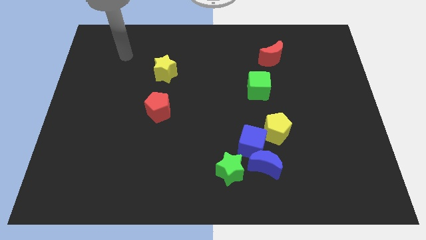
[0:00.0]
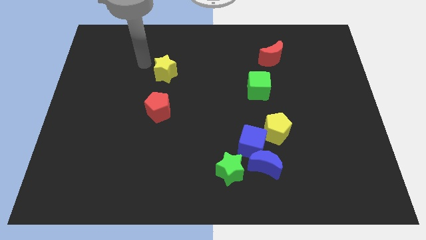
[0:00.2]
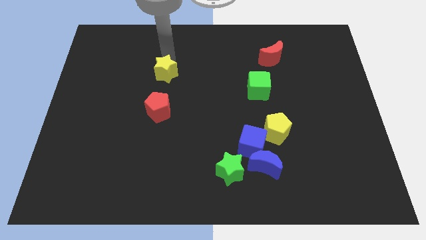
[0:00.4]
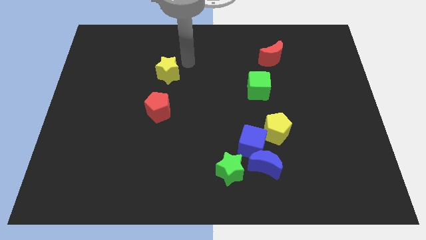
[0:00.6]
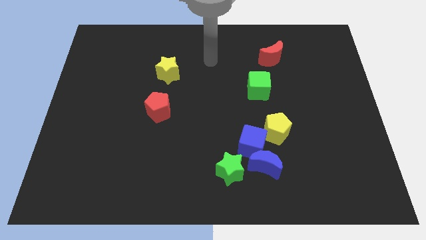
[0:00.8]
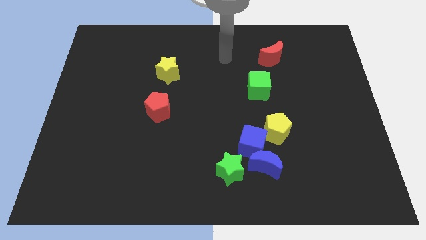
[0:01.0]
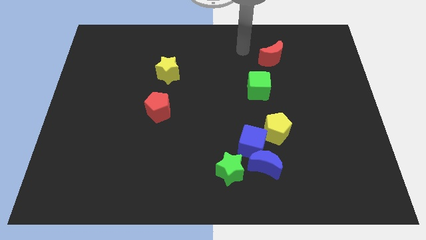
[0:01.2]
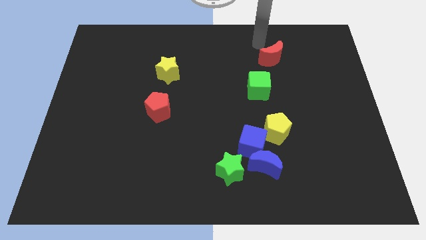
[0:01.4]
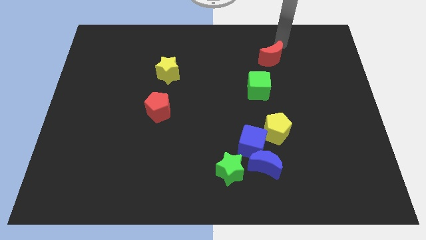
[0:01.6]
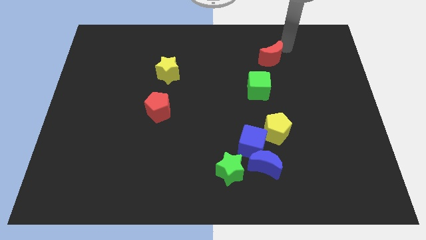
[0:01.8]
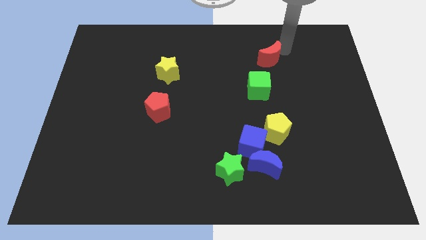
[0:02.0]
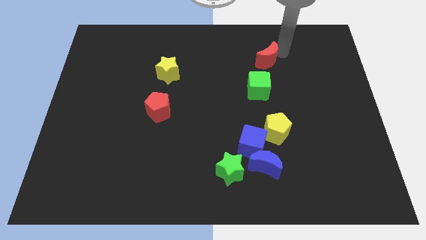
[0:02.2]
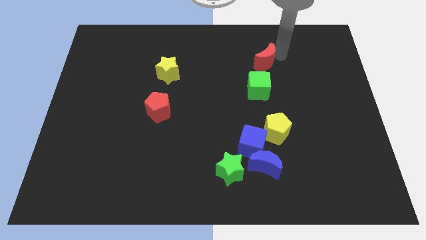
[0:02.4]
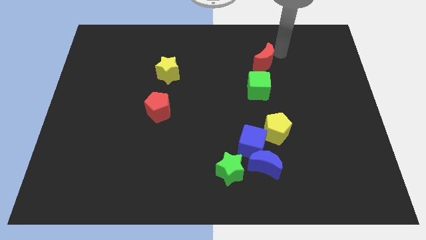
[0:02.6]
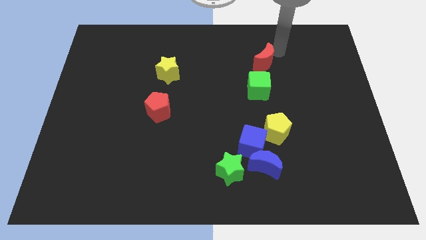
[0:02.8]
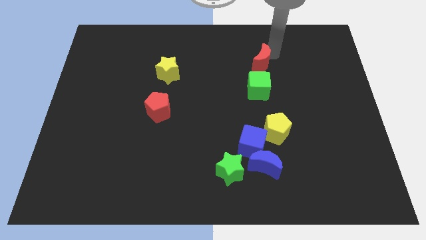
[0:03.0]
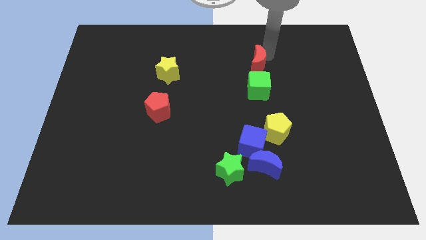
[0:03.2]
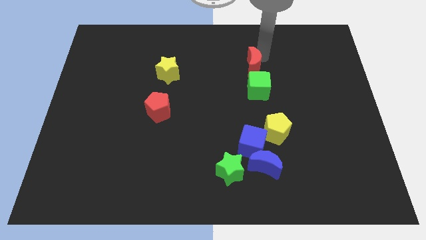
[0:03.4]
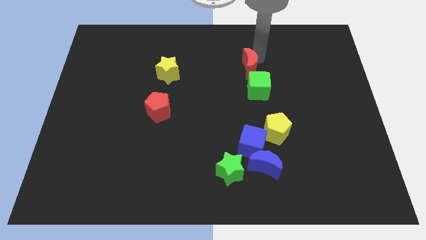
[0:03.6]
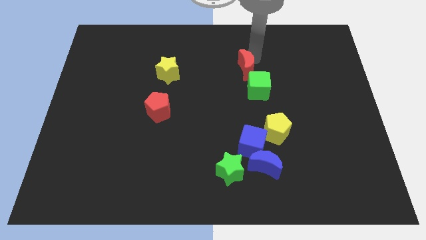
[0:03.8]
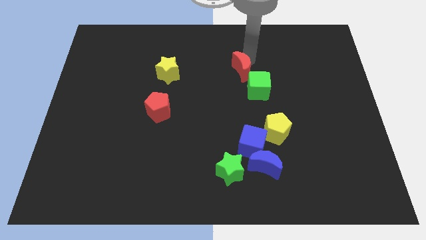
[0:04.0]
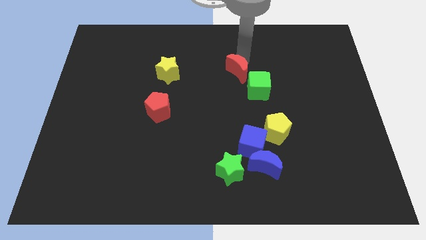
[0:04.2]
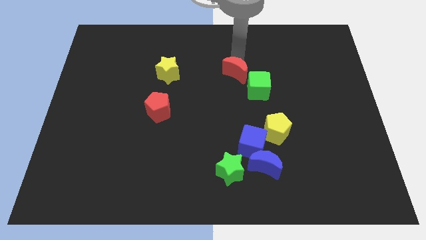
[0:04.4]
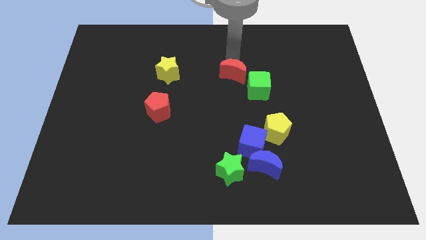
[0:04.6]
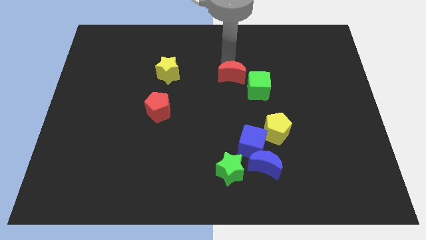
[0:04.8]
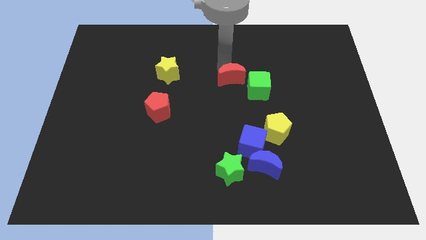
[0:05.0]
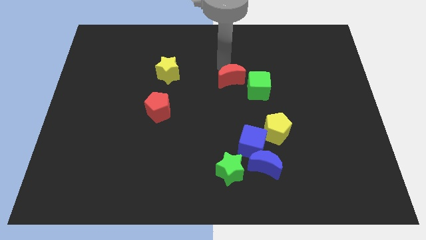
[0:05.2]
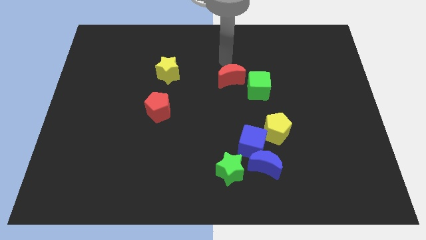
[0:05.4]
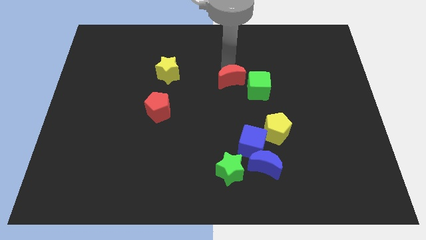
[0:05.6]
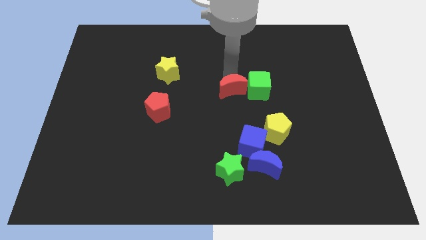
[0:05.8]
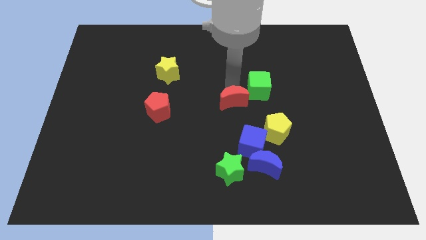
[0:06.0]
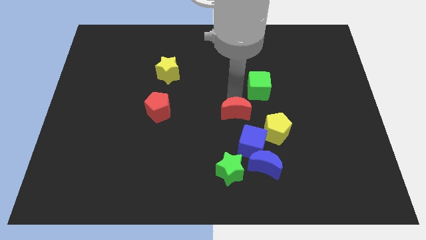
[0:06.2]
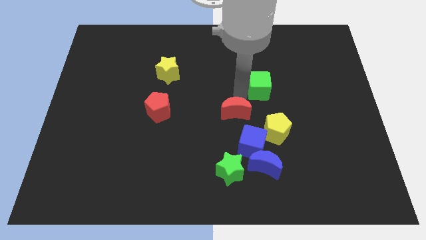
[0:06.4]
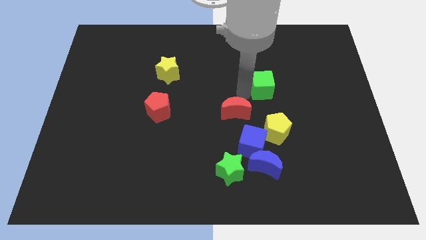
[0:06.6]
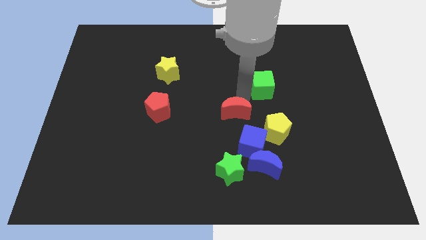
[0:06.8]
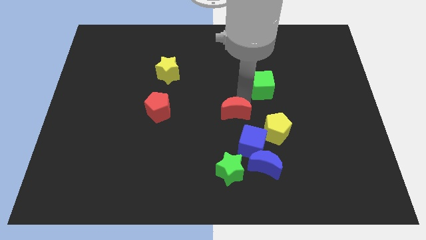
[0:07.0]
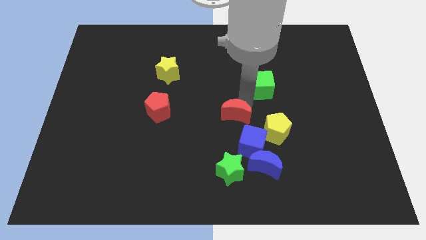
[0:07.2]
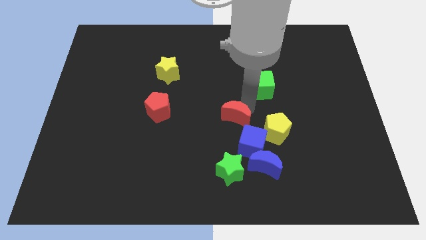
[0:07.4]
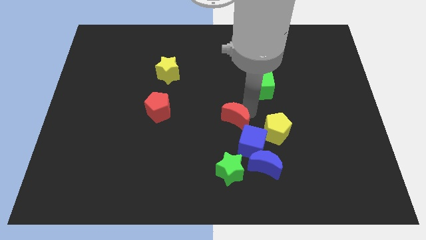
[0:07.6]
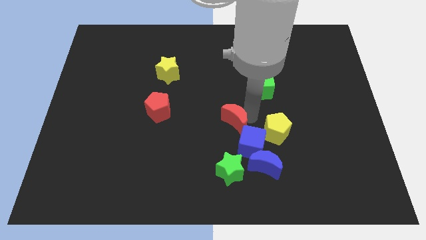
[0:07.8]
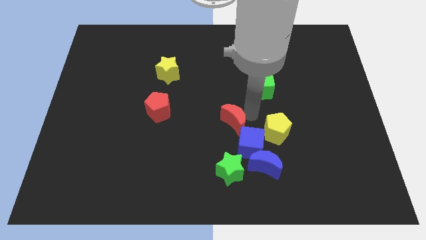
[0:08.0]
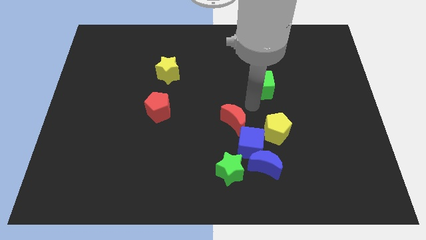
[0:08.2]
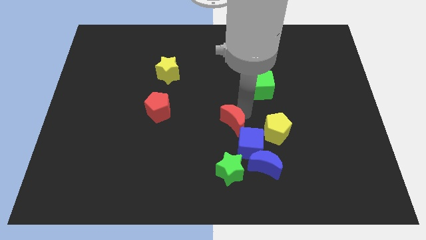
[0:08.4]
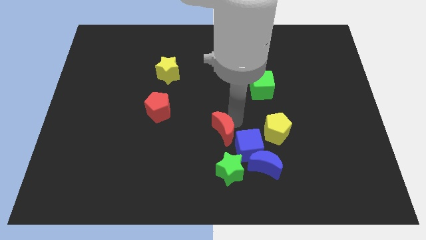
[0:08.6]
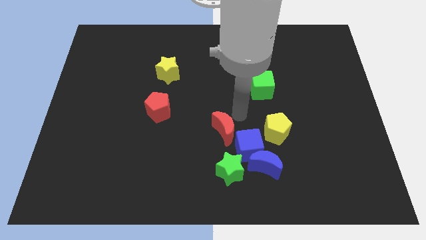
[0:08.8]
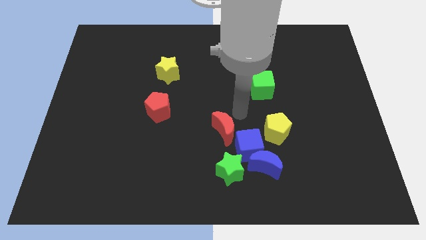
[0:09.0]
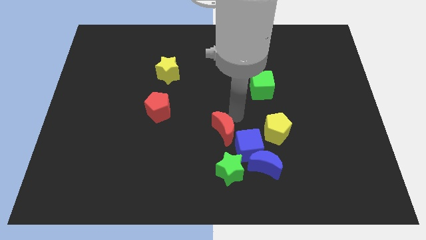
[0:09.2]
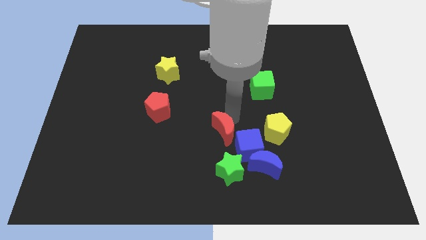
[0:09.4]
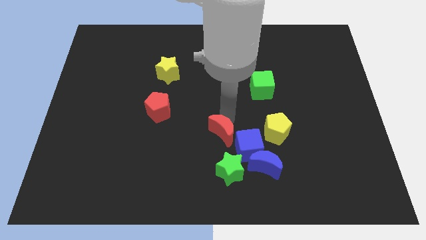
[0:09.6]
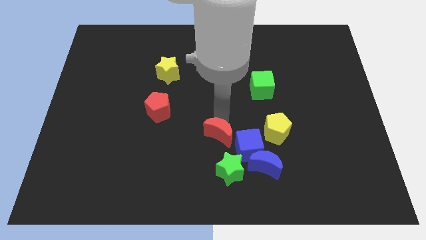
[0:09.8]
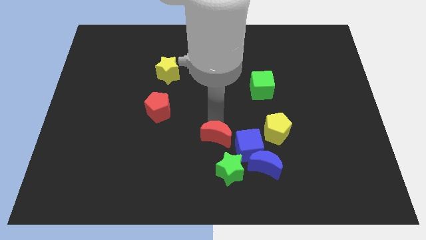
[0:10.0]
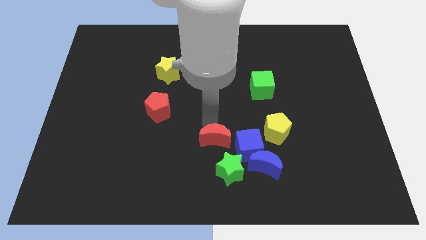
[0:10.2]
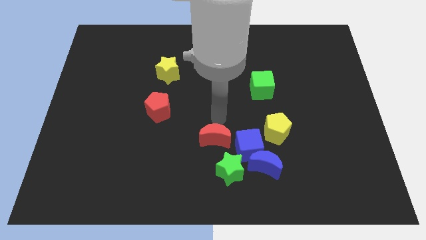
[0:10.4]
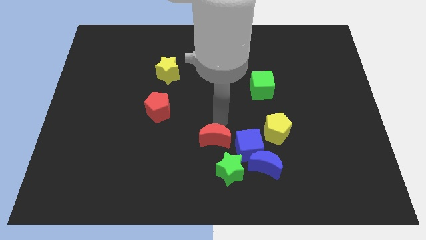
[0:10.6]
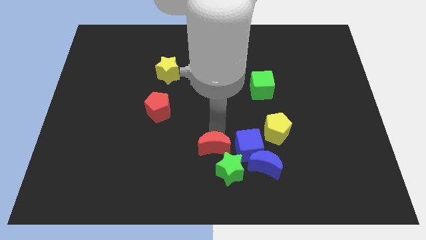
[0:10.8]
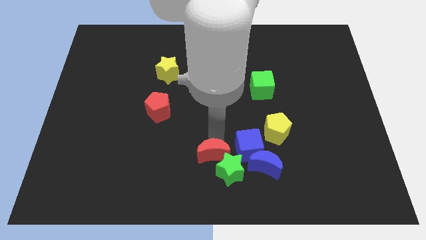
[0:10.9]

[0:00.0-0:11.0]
push the red moon to the bottom side

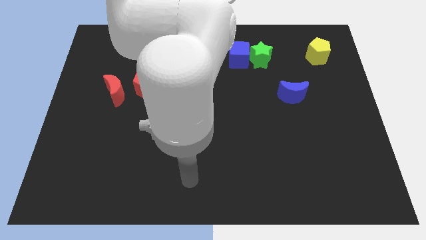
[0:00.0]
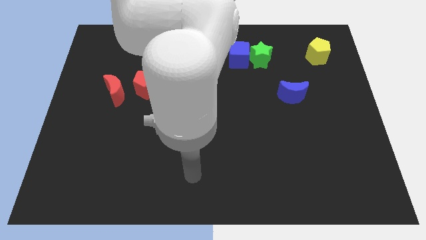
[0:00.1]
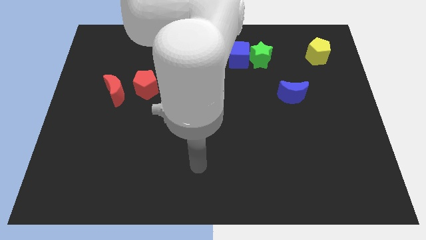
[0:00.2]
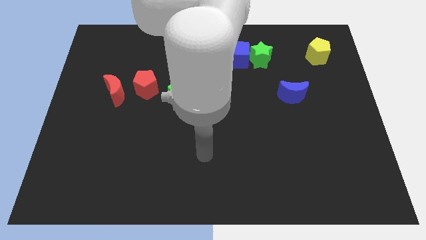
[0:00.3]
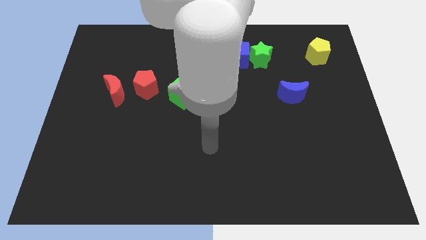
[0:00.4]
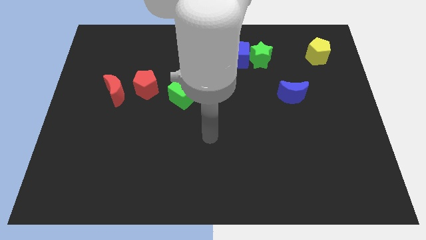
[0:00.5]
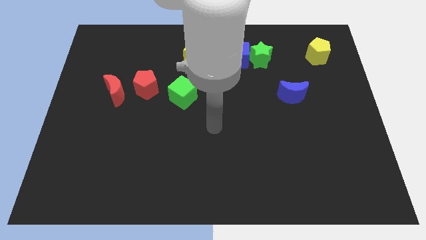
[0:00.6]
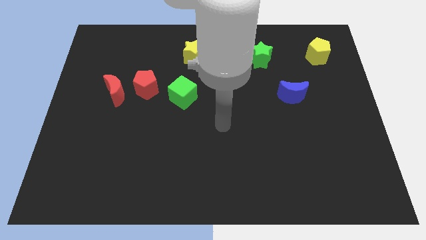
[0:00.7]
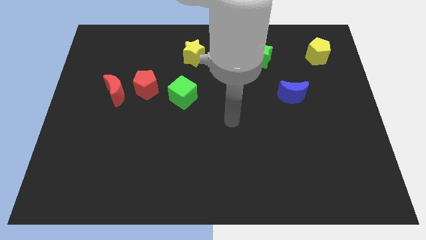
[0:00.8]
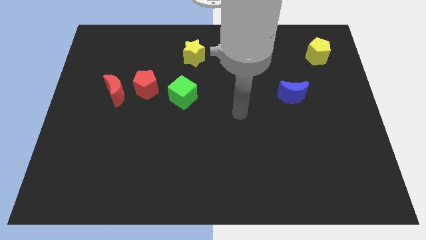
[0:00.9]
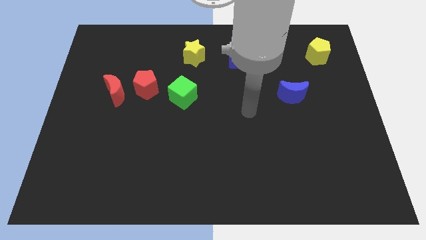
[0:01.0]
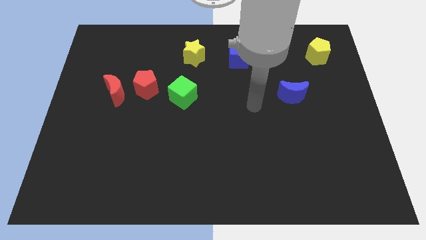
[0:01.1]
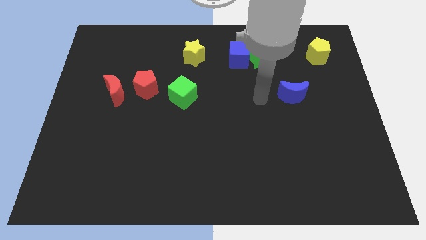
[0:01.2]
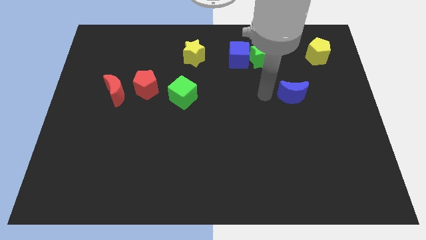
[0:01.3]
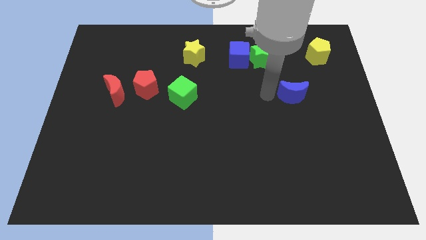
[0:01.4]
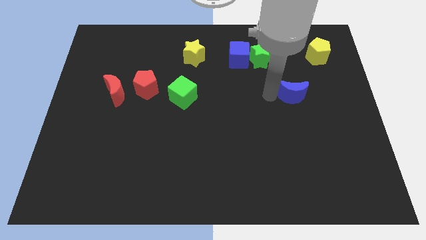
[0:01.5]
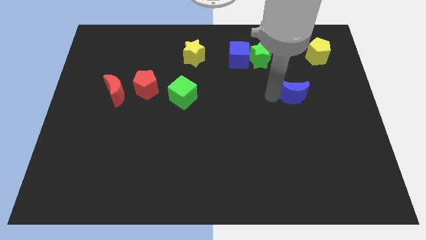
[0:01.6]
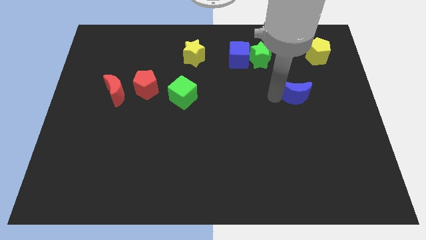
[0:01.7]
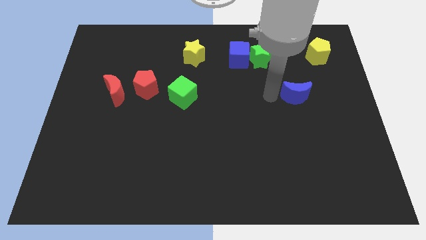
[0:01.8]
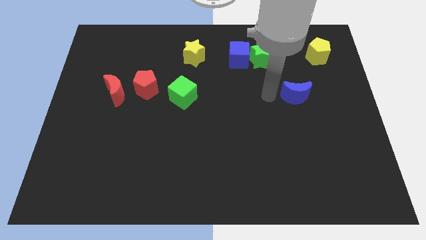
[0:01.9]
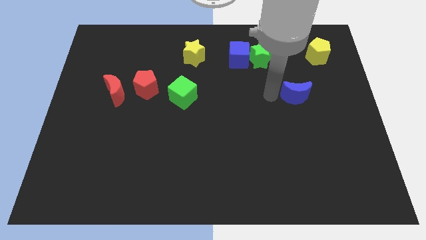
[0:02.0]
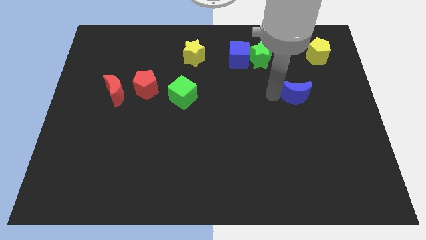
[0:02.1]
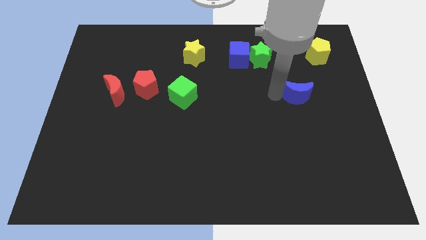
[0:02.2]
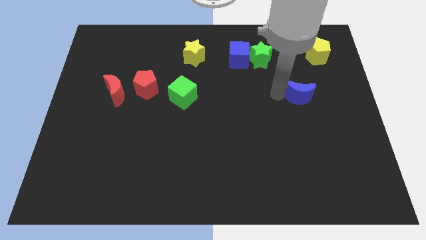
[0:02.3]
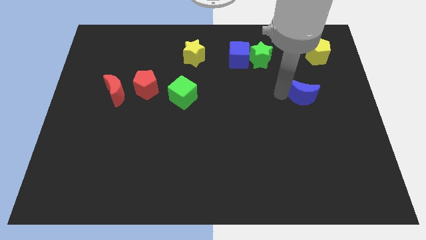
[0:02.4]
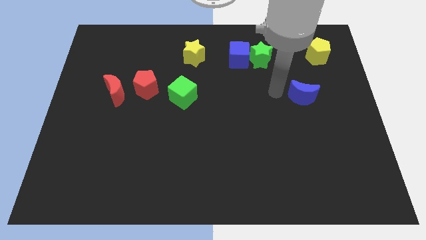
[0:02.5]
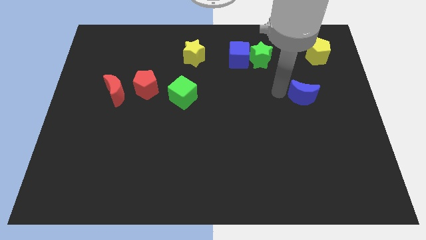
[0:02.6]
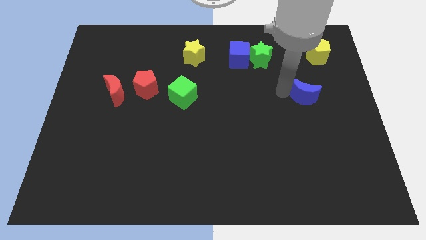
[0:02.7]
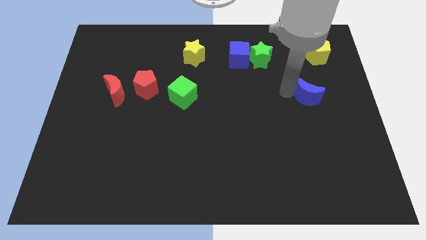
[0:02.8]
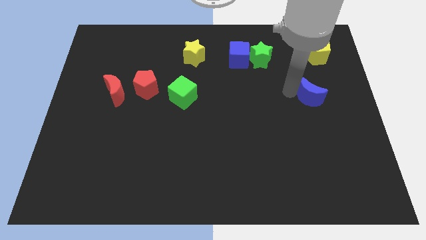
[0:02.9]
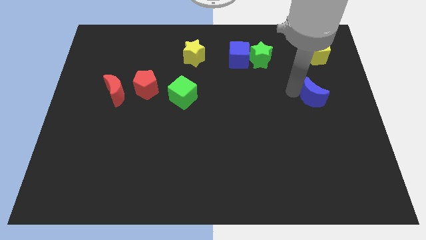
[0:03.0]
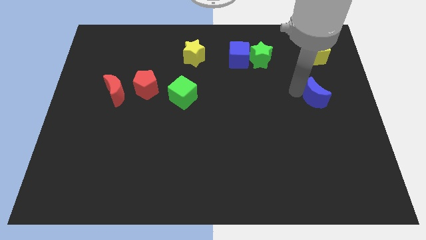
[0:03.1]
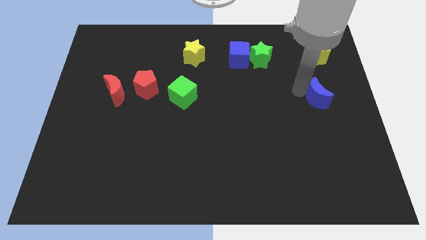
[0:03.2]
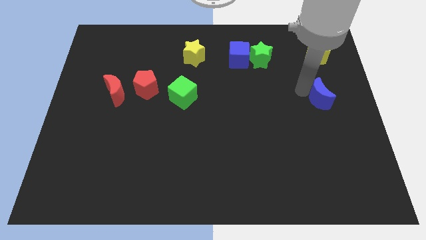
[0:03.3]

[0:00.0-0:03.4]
push the blue moon to the right side of the board
